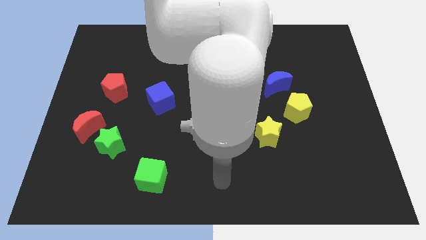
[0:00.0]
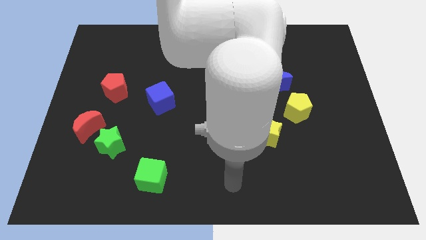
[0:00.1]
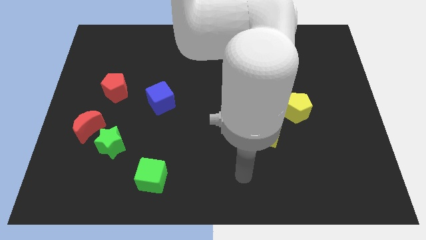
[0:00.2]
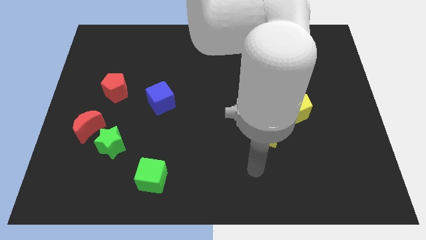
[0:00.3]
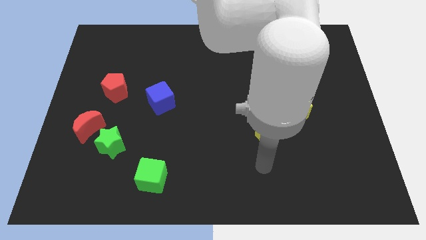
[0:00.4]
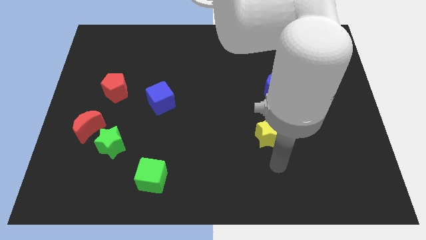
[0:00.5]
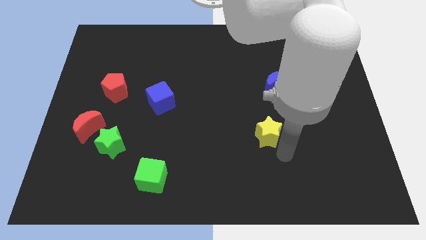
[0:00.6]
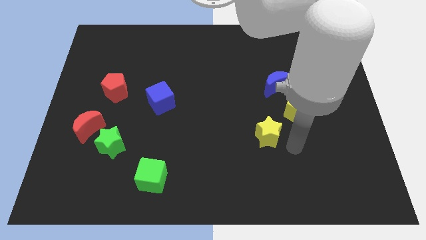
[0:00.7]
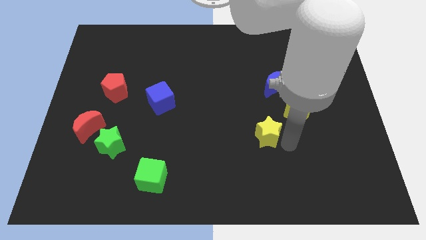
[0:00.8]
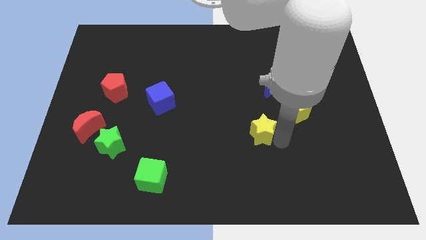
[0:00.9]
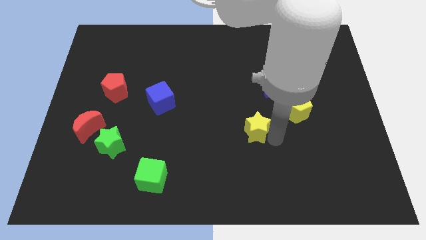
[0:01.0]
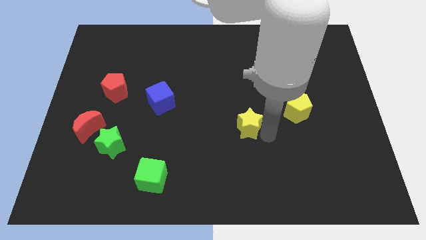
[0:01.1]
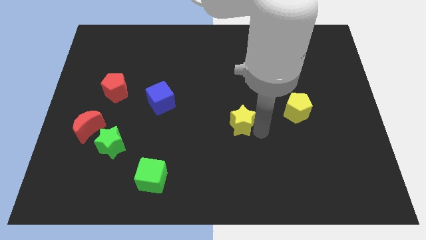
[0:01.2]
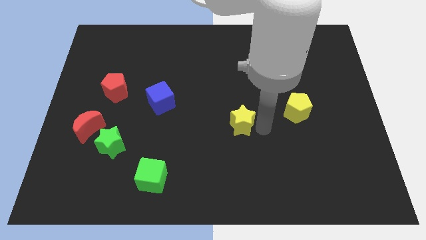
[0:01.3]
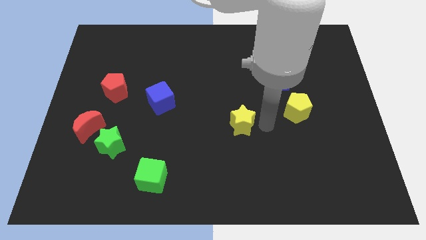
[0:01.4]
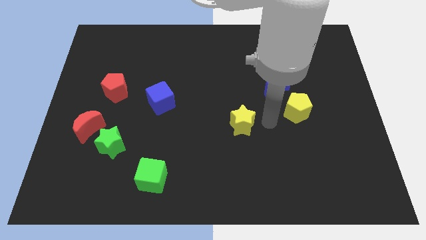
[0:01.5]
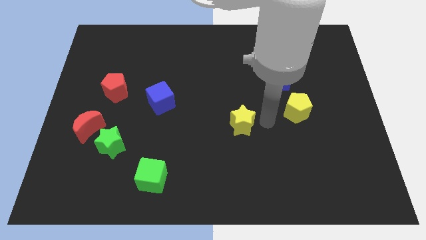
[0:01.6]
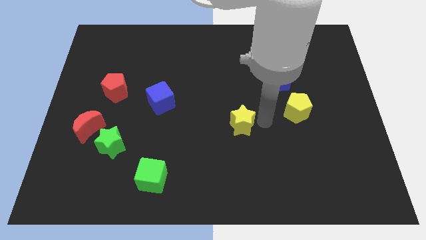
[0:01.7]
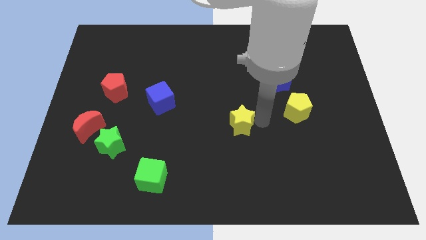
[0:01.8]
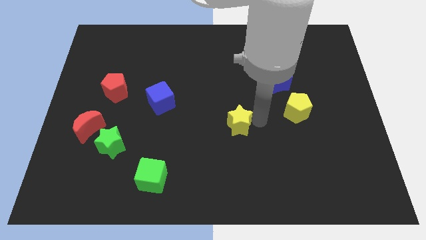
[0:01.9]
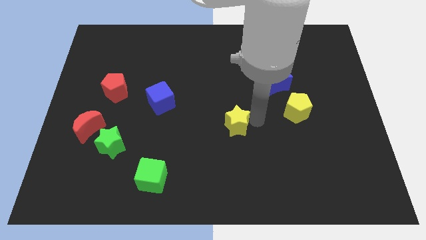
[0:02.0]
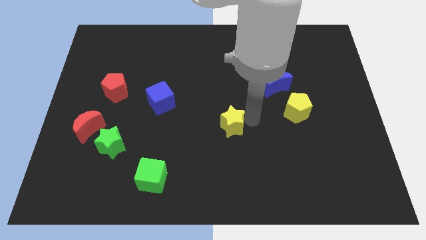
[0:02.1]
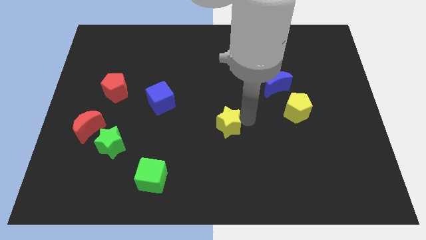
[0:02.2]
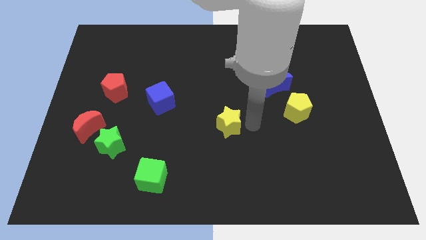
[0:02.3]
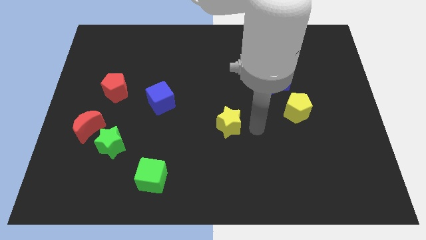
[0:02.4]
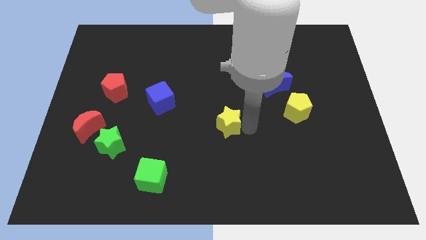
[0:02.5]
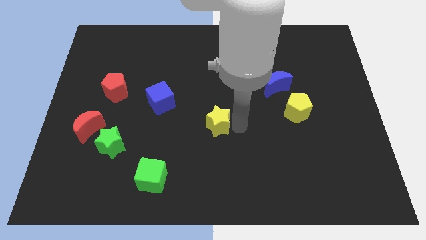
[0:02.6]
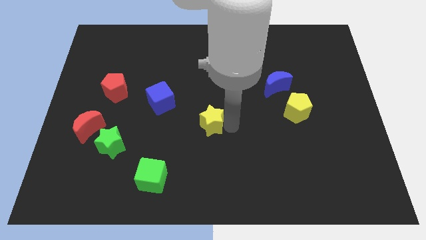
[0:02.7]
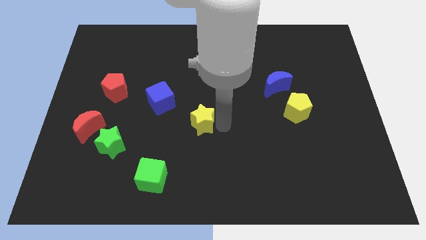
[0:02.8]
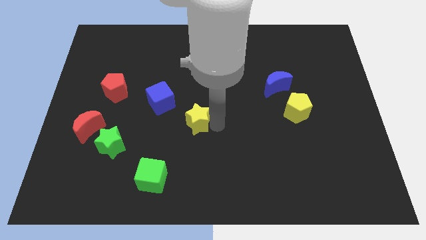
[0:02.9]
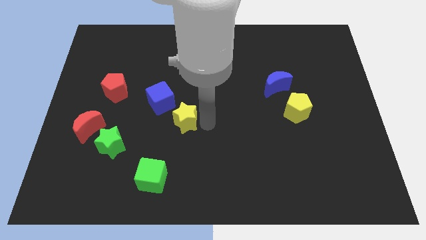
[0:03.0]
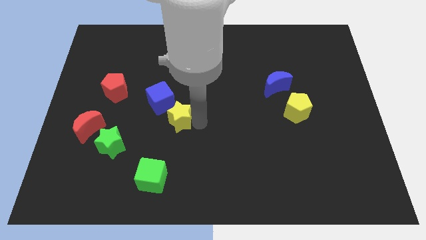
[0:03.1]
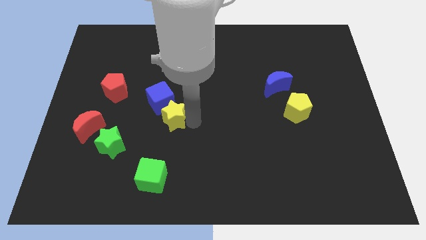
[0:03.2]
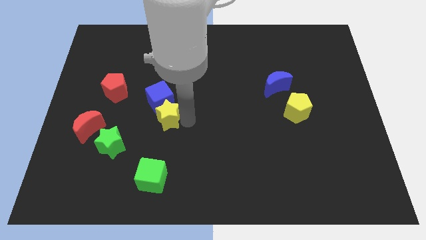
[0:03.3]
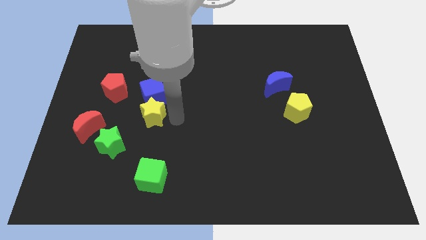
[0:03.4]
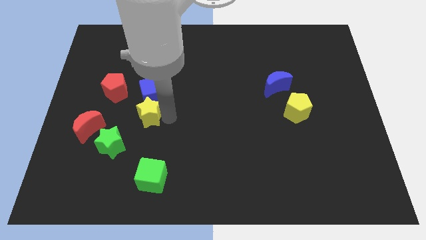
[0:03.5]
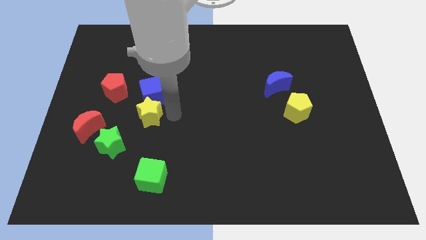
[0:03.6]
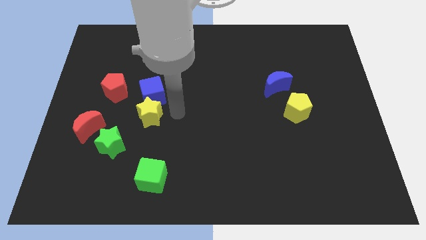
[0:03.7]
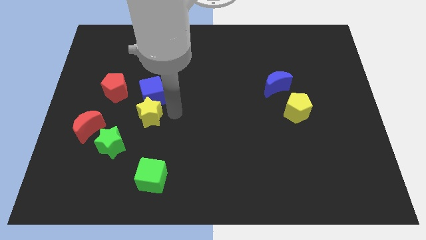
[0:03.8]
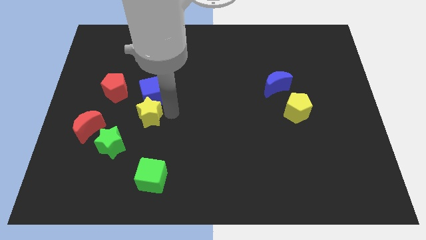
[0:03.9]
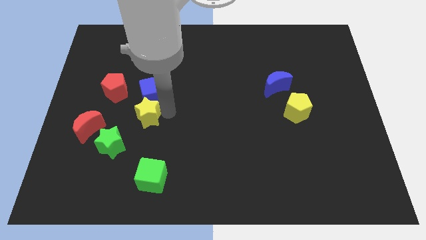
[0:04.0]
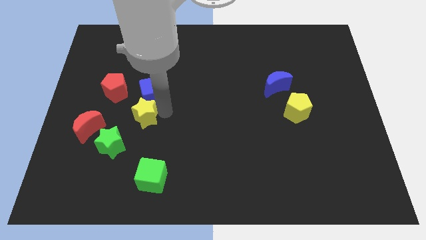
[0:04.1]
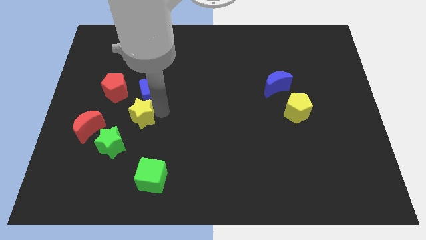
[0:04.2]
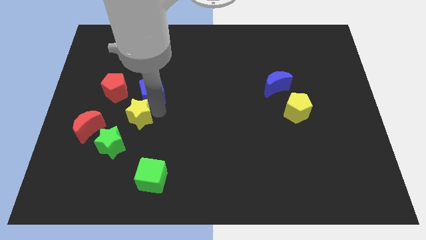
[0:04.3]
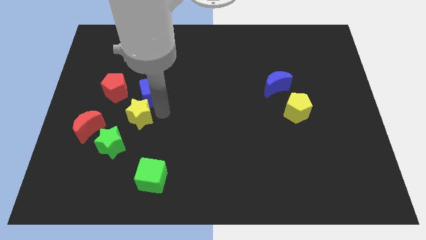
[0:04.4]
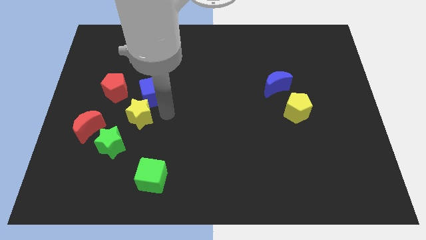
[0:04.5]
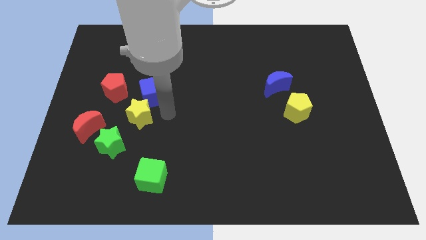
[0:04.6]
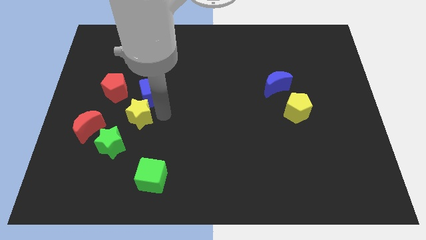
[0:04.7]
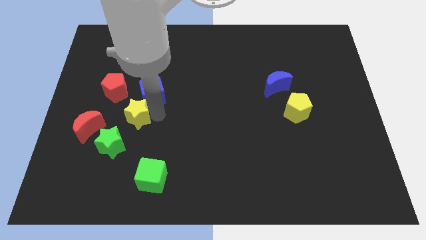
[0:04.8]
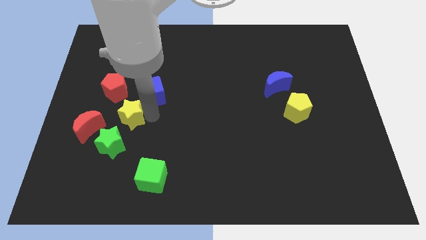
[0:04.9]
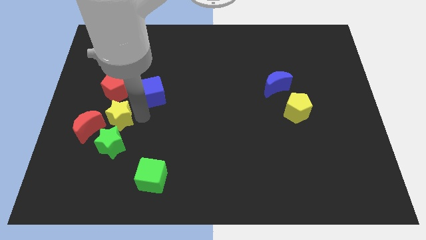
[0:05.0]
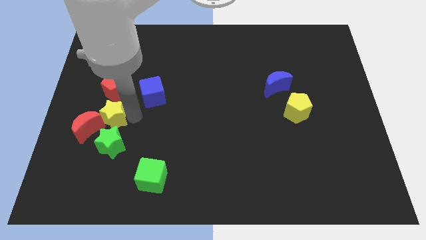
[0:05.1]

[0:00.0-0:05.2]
put the yellow star close to the red moon

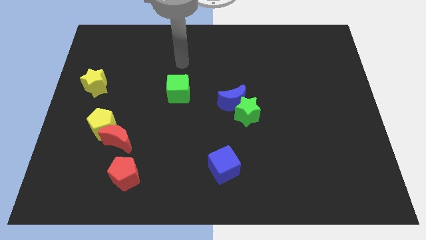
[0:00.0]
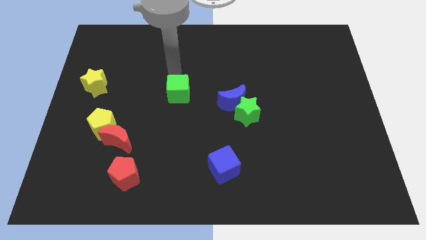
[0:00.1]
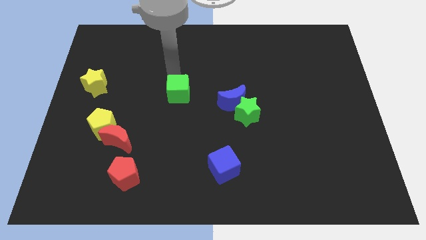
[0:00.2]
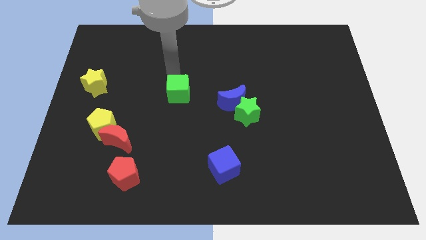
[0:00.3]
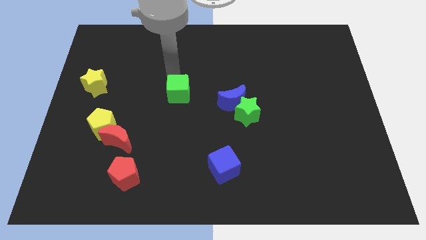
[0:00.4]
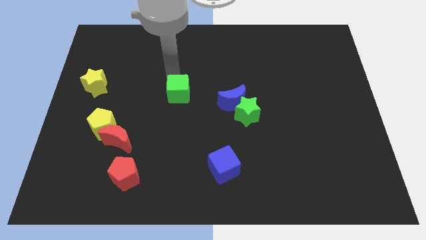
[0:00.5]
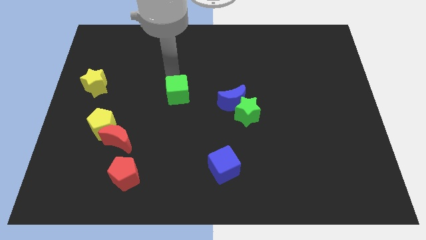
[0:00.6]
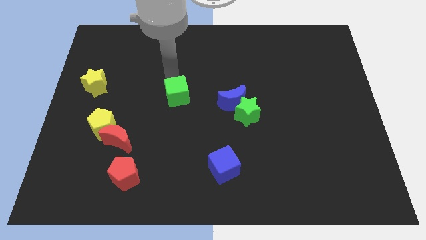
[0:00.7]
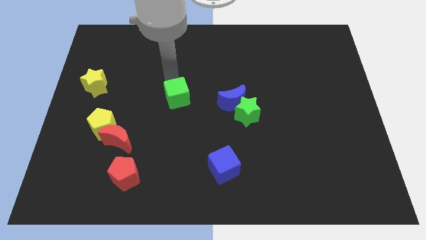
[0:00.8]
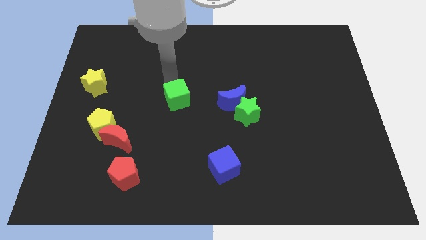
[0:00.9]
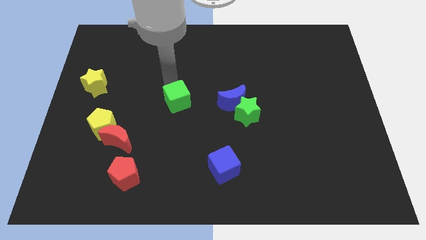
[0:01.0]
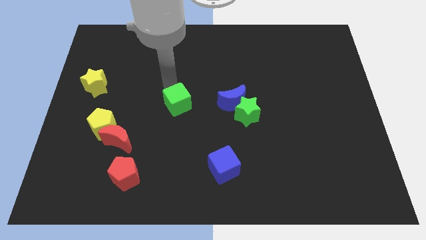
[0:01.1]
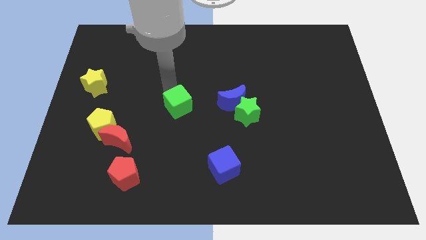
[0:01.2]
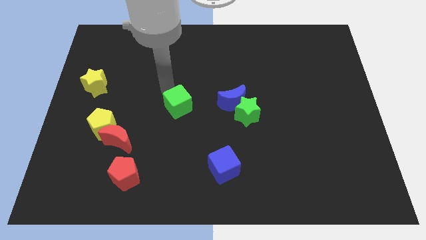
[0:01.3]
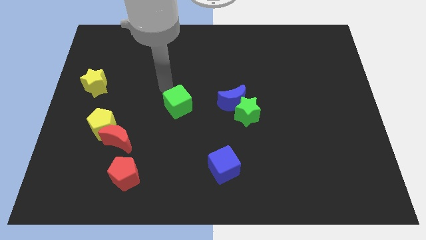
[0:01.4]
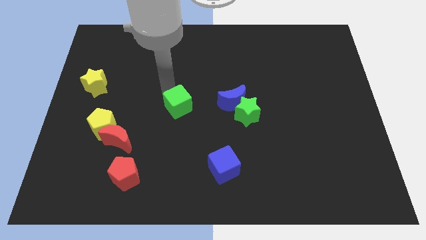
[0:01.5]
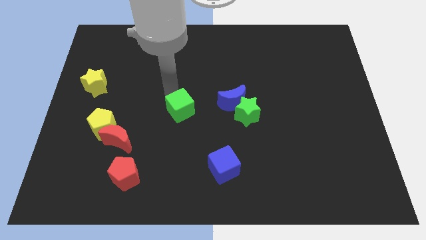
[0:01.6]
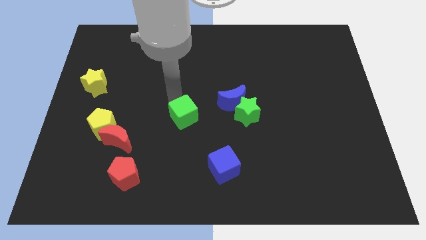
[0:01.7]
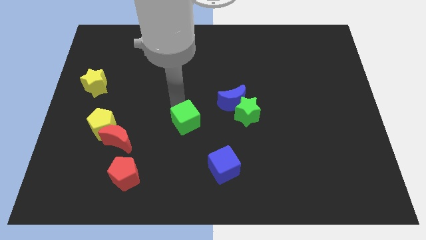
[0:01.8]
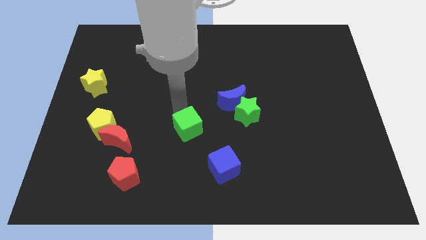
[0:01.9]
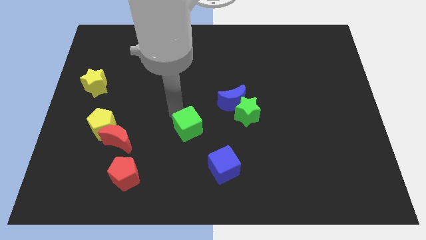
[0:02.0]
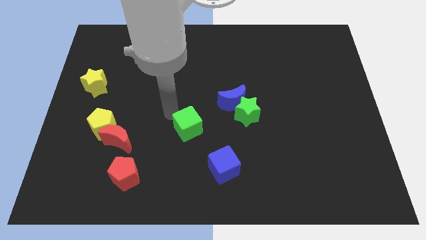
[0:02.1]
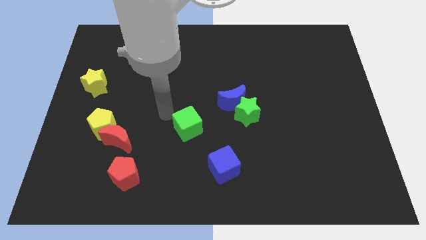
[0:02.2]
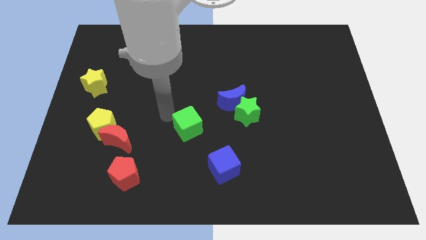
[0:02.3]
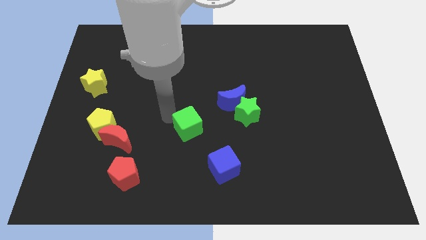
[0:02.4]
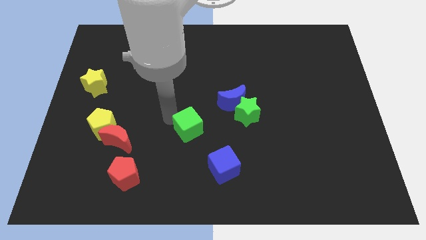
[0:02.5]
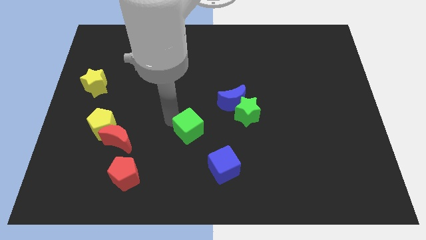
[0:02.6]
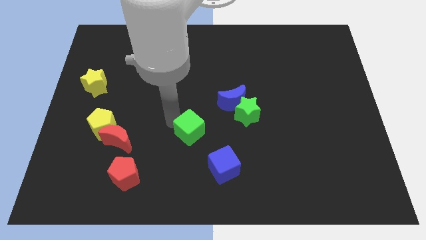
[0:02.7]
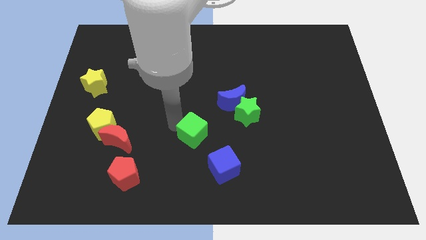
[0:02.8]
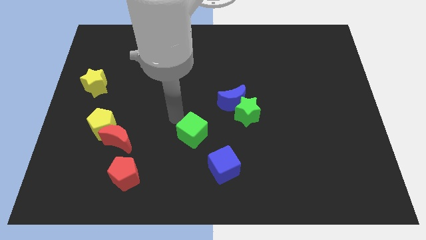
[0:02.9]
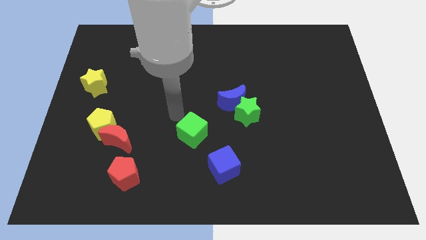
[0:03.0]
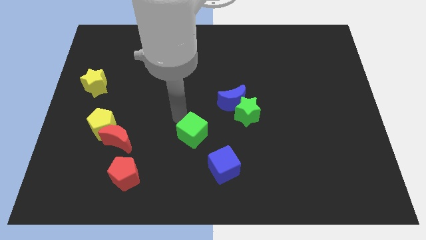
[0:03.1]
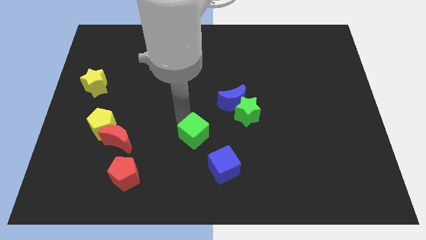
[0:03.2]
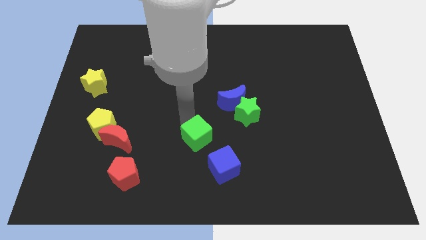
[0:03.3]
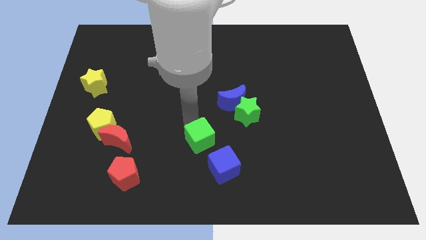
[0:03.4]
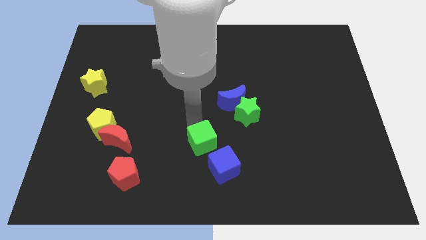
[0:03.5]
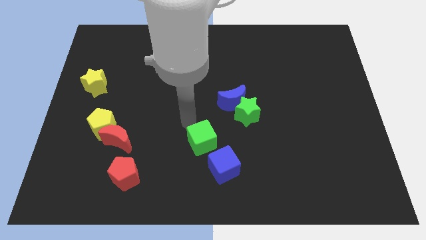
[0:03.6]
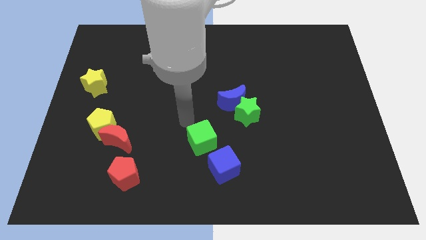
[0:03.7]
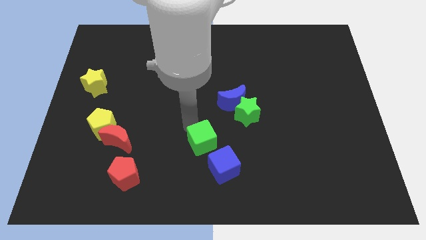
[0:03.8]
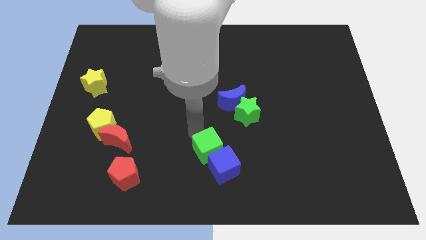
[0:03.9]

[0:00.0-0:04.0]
push the green cube to the blue cube
